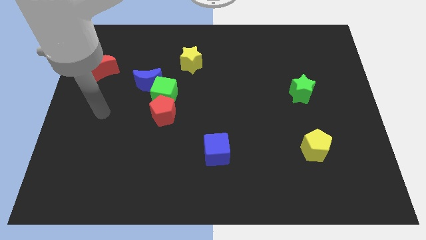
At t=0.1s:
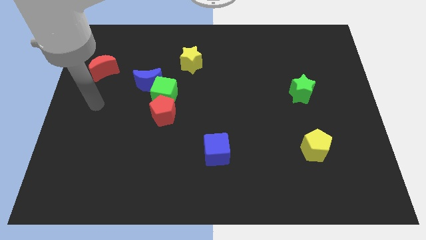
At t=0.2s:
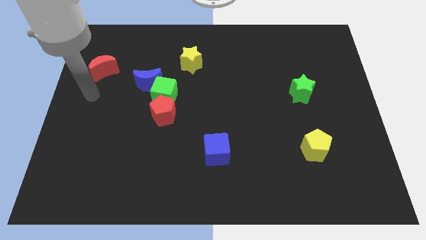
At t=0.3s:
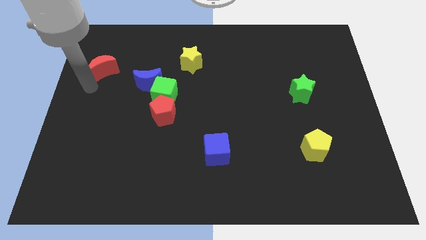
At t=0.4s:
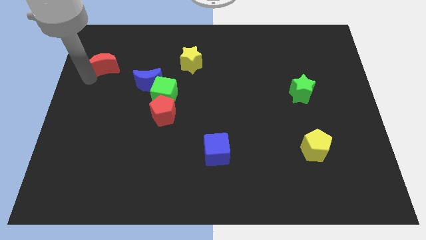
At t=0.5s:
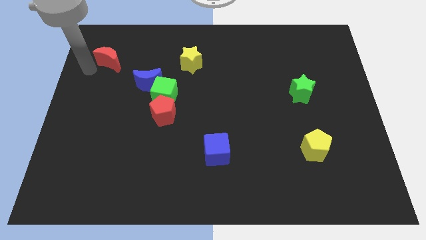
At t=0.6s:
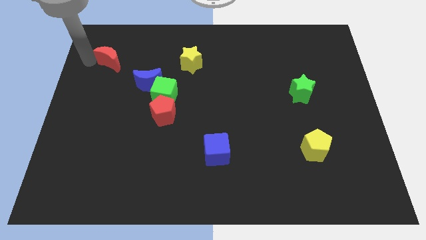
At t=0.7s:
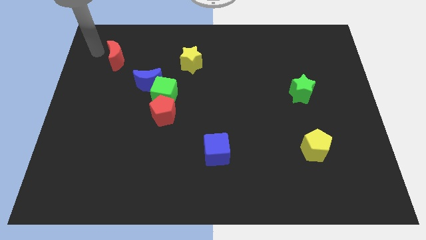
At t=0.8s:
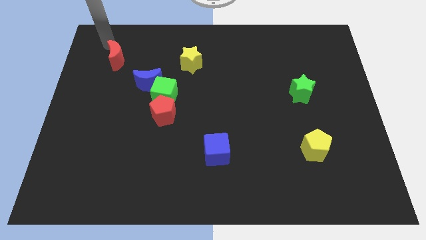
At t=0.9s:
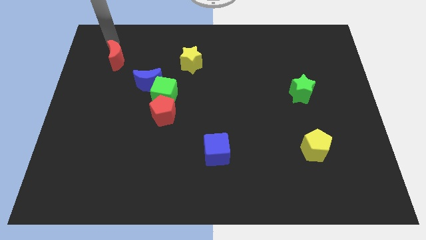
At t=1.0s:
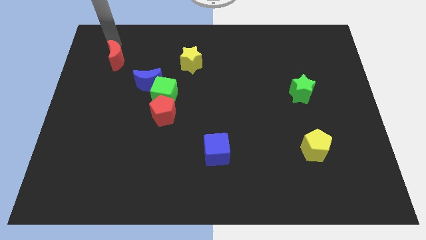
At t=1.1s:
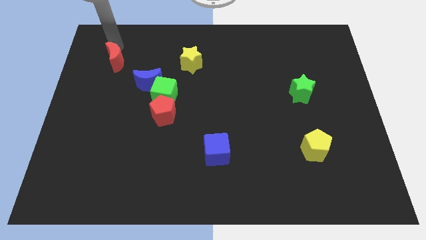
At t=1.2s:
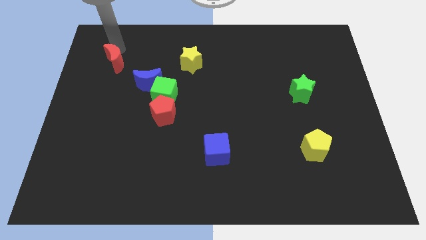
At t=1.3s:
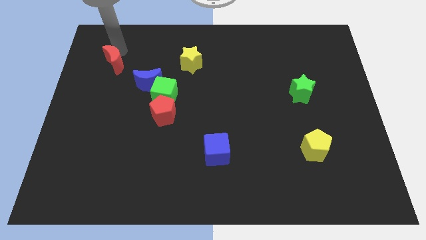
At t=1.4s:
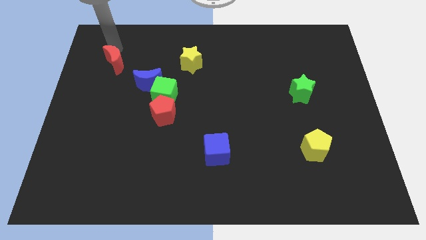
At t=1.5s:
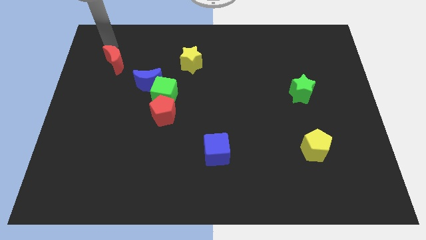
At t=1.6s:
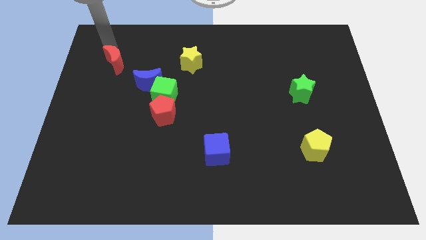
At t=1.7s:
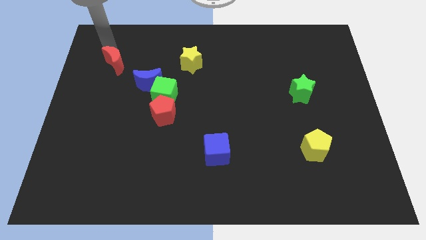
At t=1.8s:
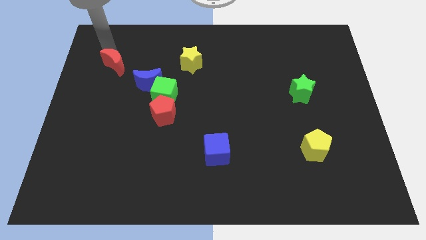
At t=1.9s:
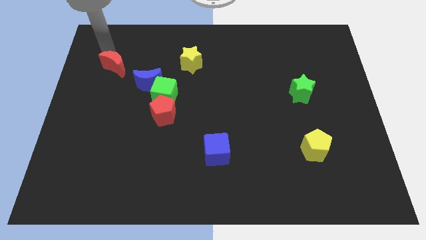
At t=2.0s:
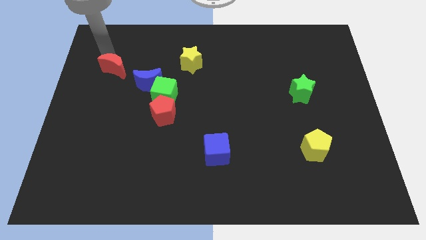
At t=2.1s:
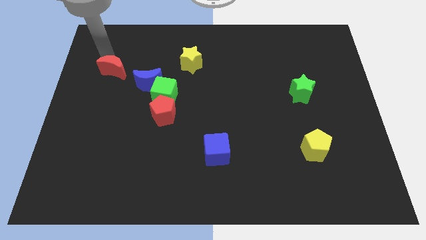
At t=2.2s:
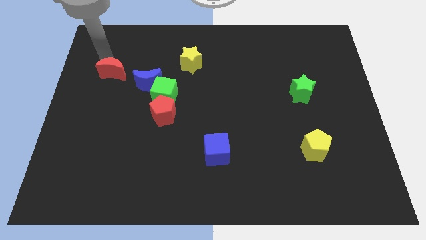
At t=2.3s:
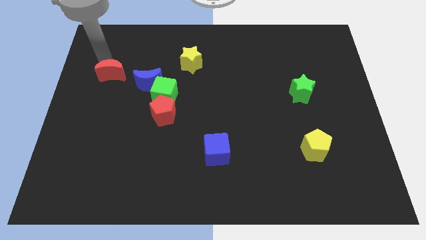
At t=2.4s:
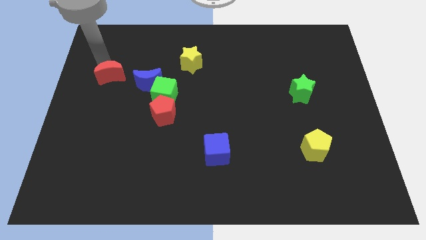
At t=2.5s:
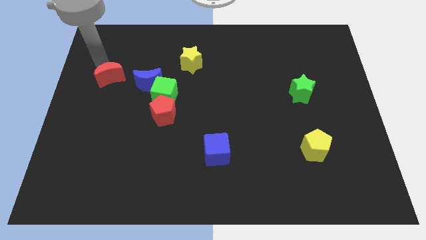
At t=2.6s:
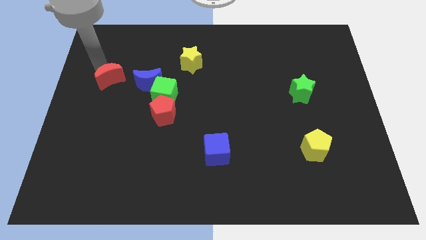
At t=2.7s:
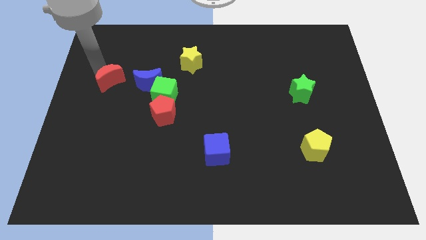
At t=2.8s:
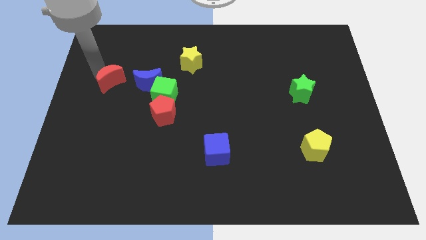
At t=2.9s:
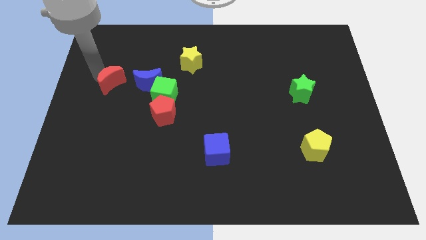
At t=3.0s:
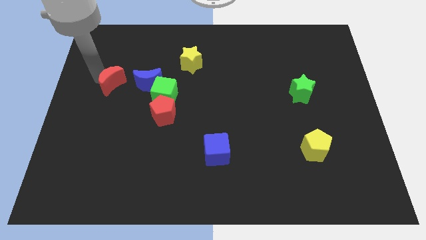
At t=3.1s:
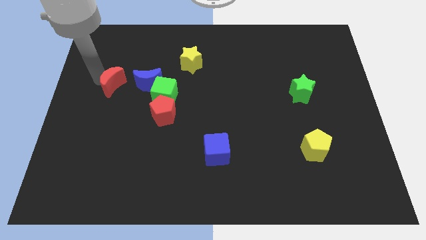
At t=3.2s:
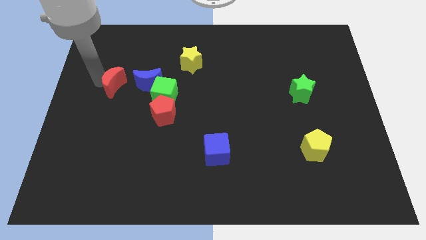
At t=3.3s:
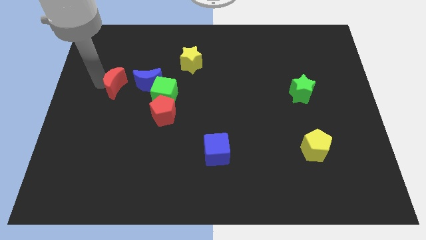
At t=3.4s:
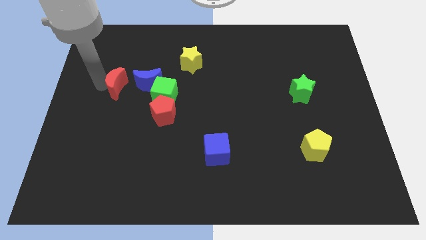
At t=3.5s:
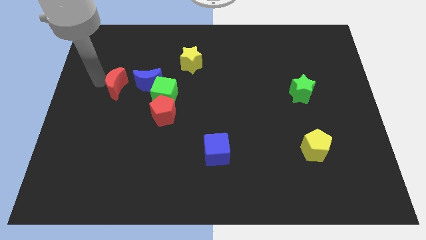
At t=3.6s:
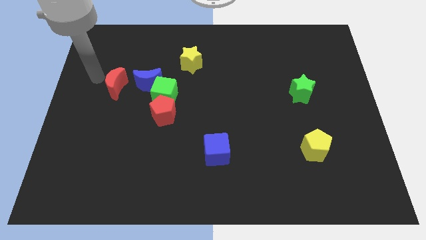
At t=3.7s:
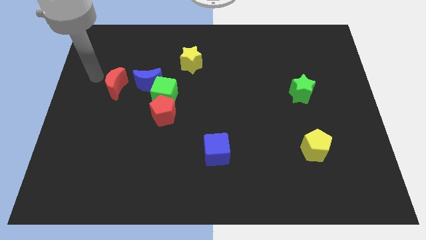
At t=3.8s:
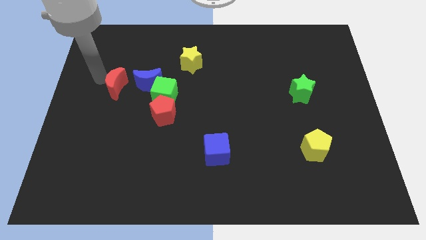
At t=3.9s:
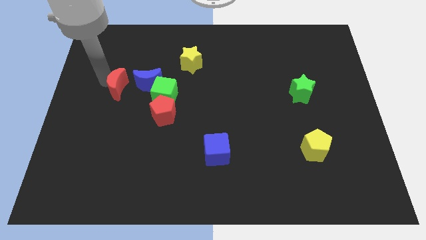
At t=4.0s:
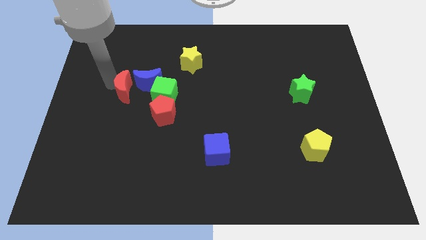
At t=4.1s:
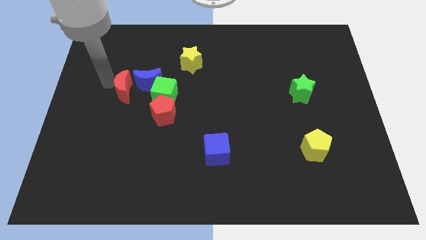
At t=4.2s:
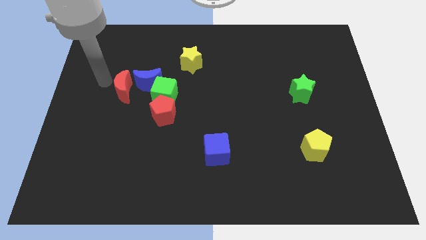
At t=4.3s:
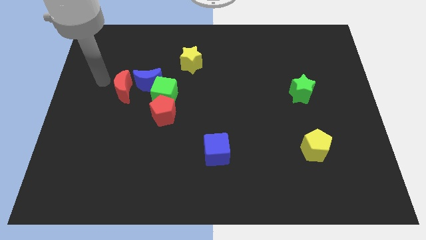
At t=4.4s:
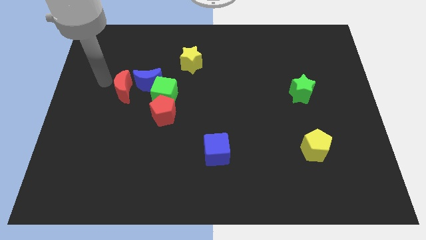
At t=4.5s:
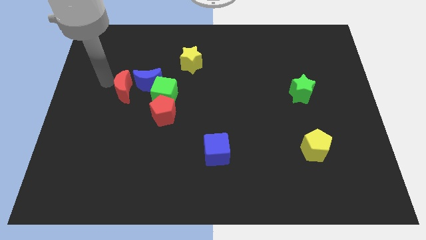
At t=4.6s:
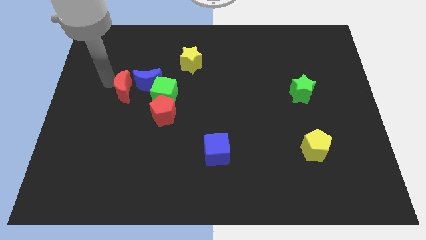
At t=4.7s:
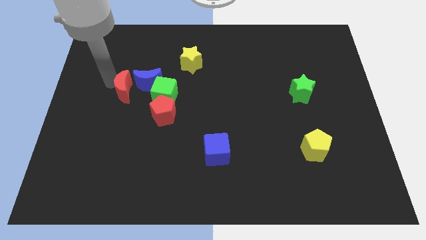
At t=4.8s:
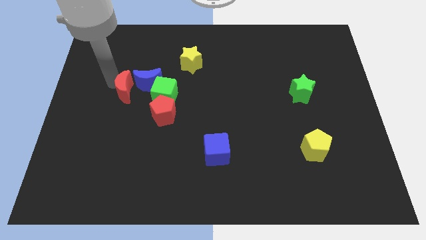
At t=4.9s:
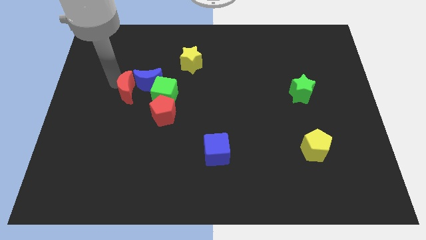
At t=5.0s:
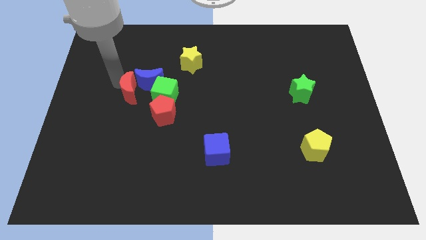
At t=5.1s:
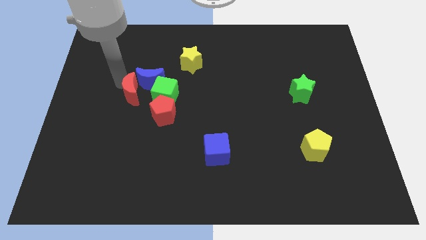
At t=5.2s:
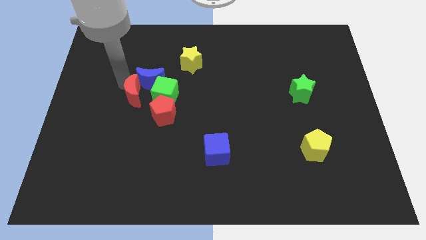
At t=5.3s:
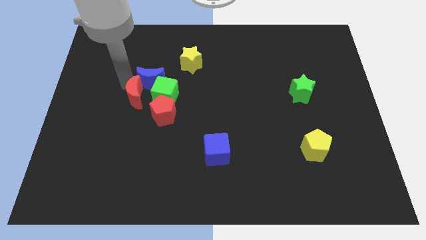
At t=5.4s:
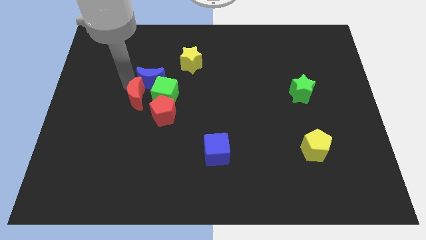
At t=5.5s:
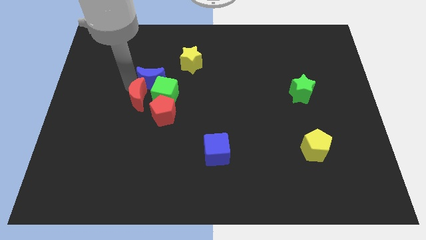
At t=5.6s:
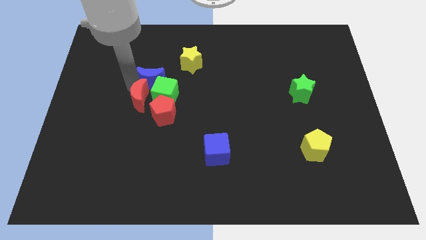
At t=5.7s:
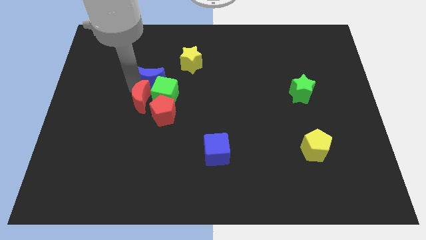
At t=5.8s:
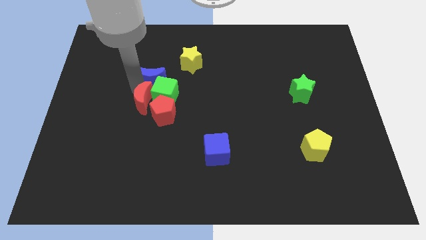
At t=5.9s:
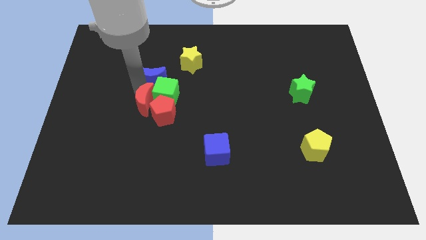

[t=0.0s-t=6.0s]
push the red moon close to the red pentagon

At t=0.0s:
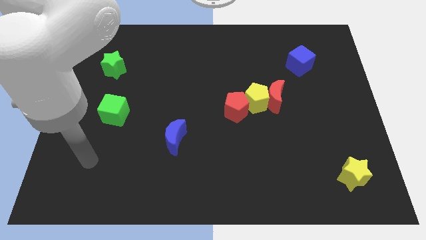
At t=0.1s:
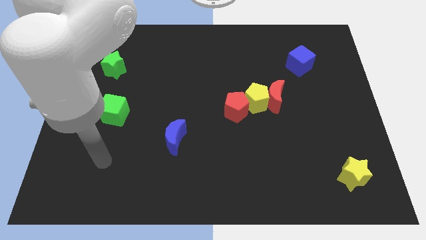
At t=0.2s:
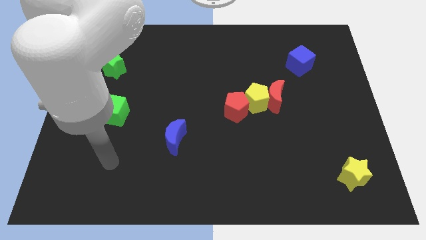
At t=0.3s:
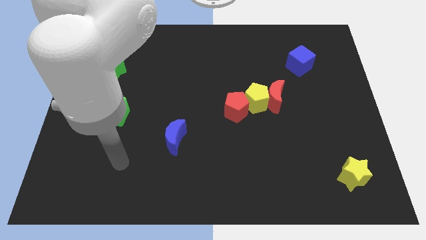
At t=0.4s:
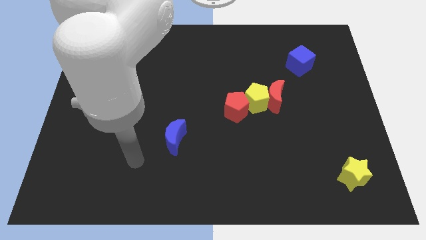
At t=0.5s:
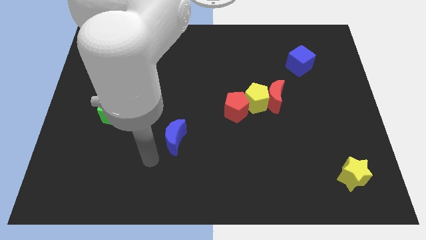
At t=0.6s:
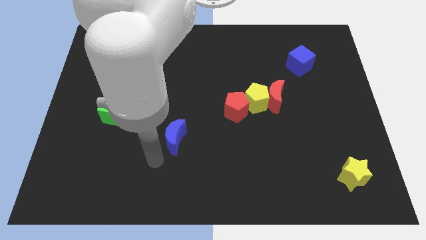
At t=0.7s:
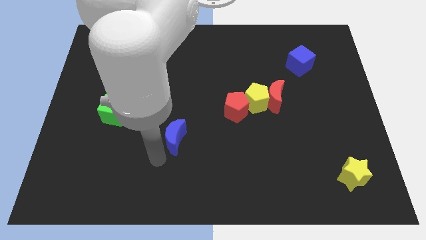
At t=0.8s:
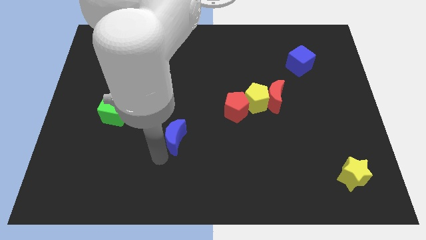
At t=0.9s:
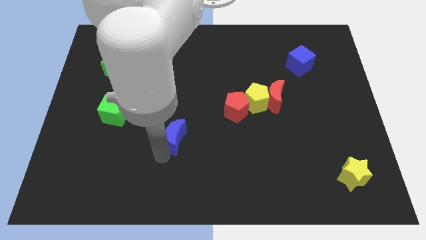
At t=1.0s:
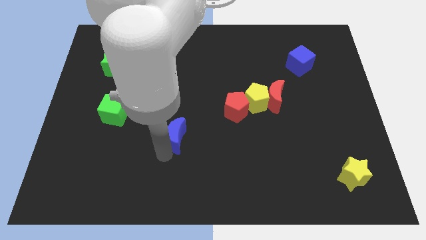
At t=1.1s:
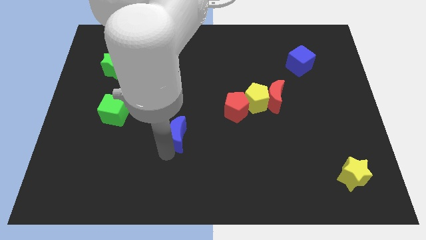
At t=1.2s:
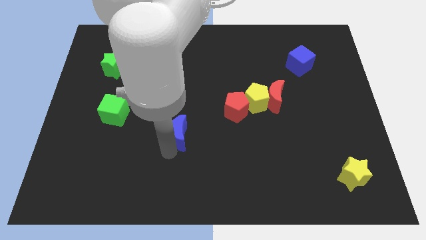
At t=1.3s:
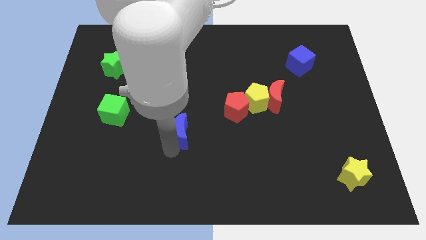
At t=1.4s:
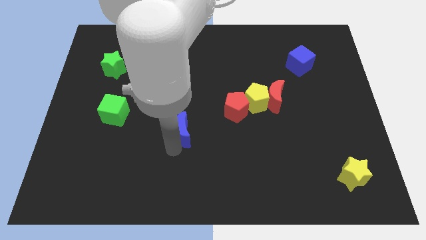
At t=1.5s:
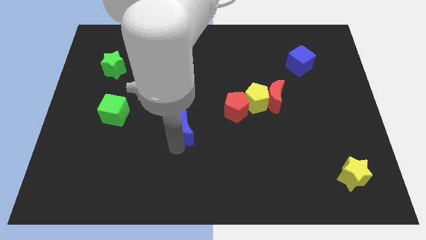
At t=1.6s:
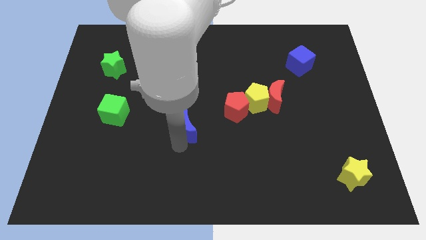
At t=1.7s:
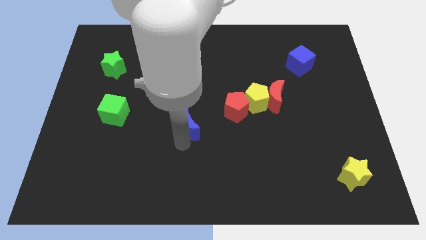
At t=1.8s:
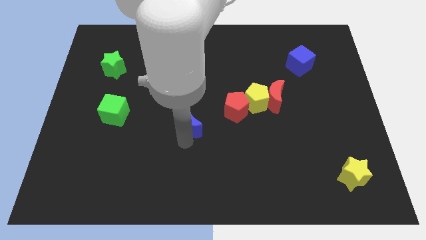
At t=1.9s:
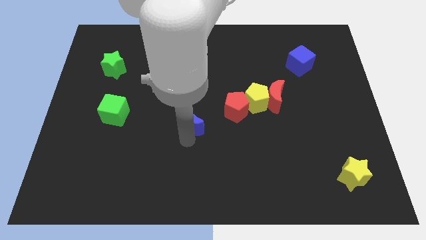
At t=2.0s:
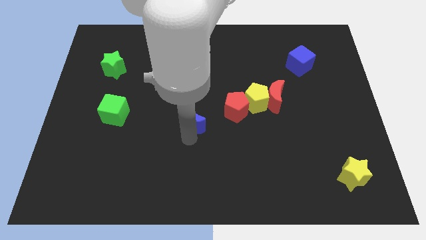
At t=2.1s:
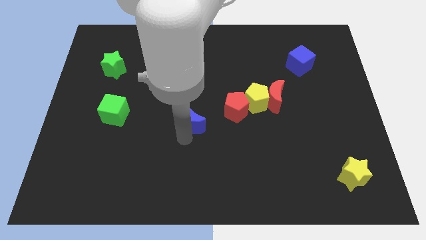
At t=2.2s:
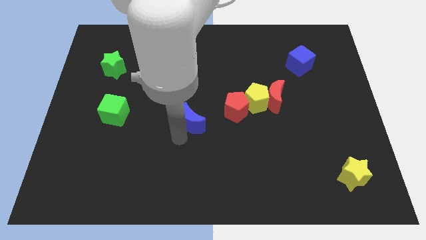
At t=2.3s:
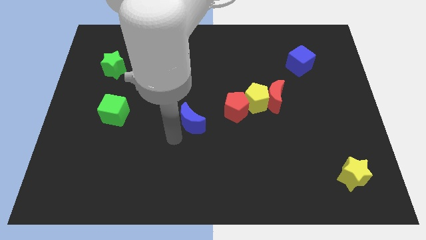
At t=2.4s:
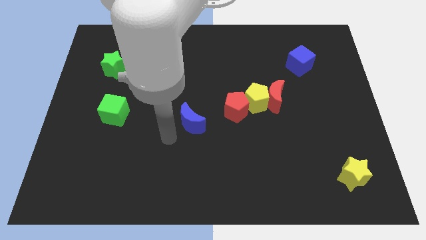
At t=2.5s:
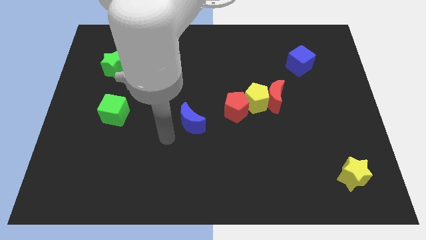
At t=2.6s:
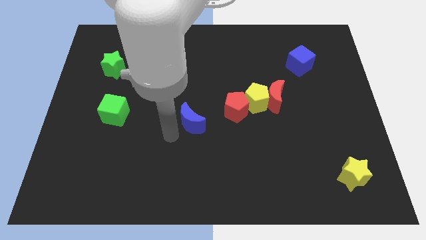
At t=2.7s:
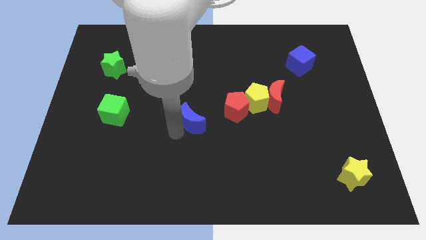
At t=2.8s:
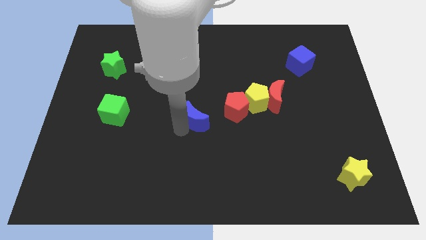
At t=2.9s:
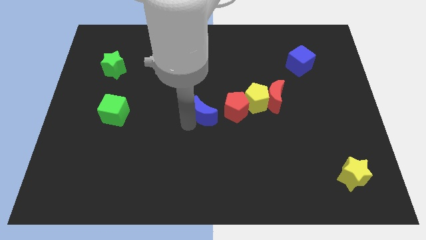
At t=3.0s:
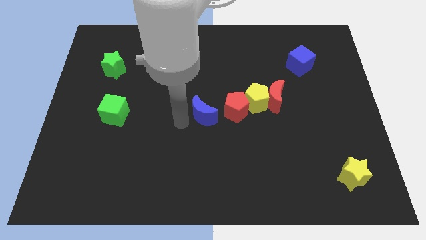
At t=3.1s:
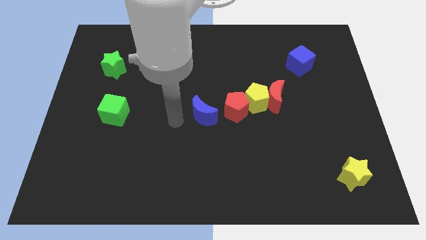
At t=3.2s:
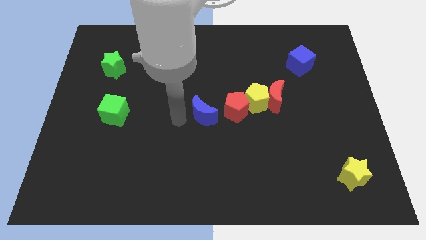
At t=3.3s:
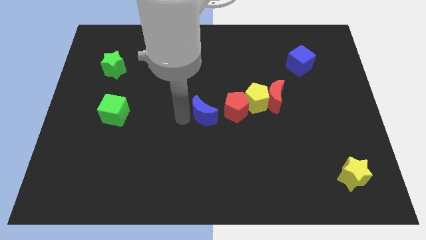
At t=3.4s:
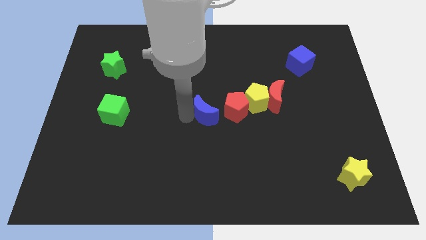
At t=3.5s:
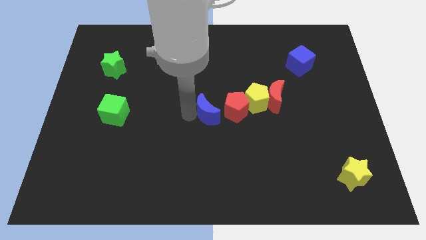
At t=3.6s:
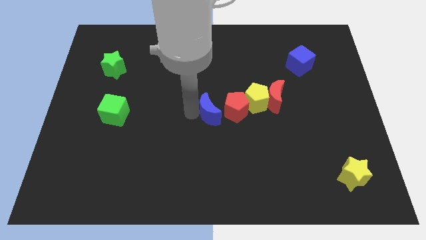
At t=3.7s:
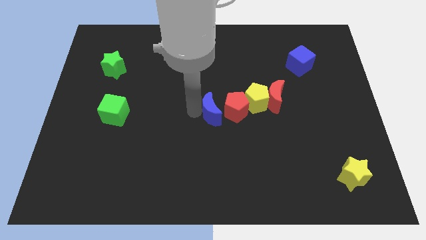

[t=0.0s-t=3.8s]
put the blue moon towards the red pentagon
